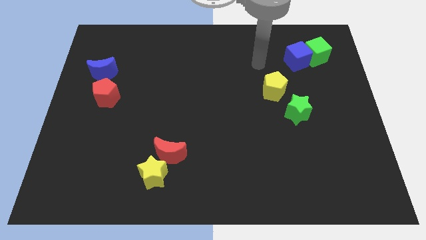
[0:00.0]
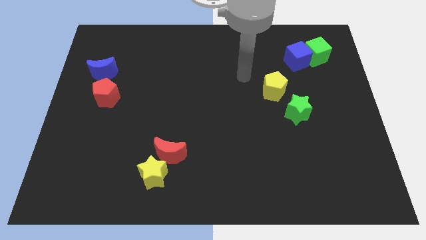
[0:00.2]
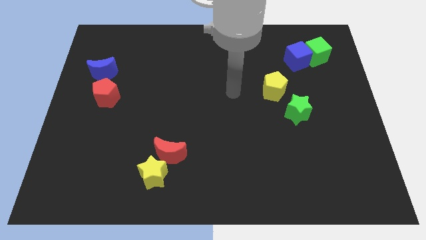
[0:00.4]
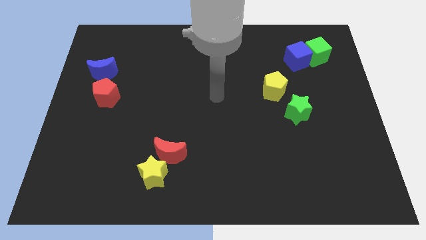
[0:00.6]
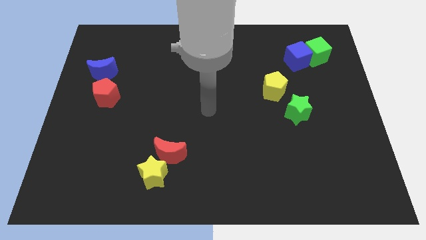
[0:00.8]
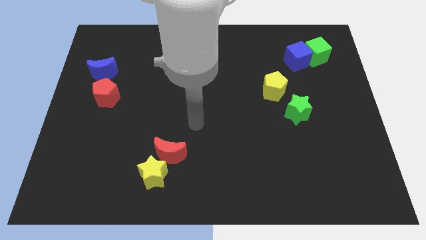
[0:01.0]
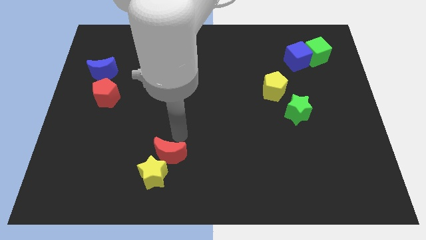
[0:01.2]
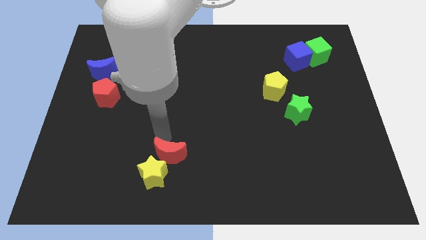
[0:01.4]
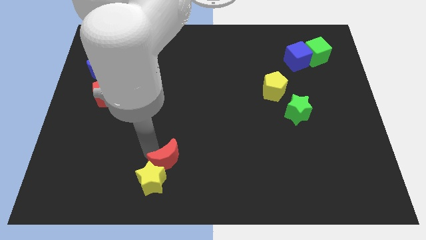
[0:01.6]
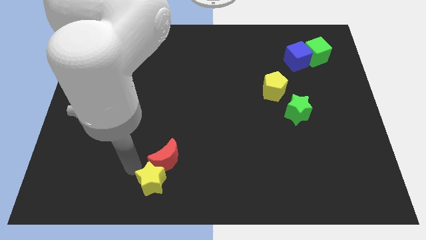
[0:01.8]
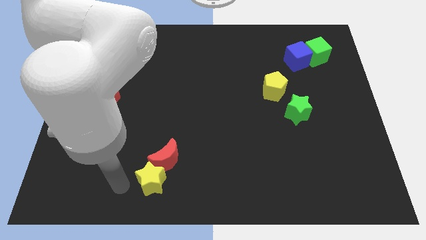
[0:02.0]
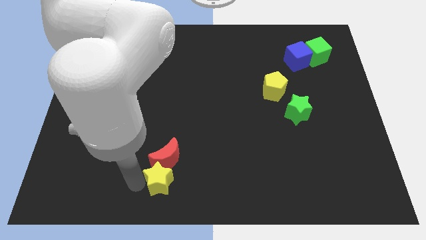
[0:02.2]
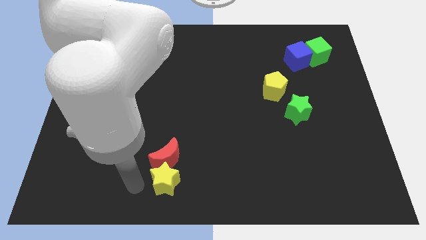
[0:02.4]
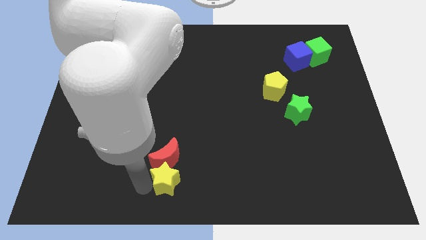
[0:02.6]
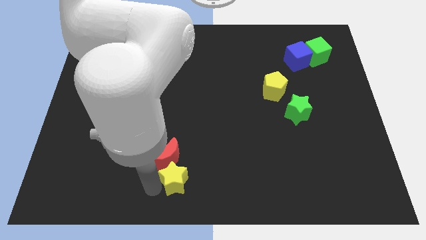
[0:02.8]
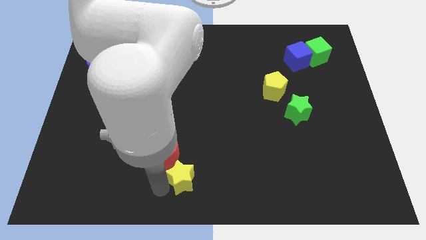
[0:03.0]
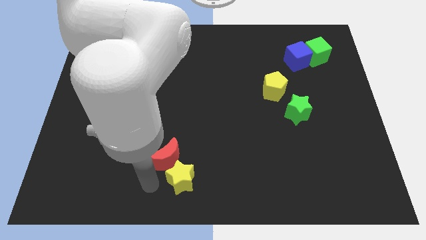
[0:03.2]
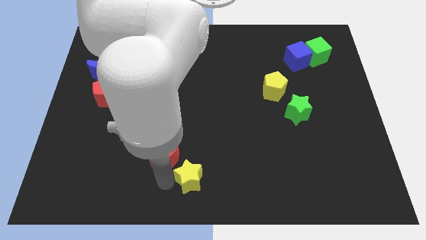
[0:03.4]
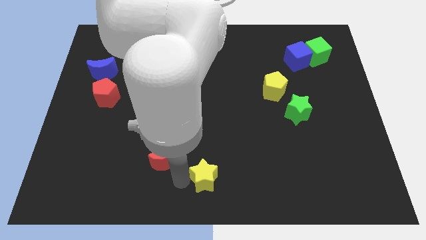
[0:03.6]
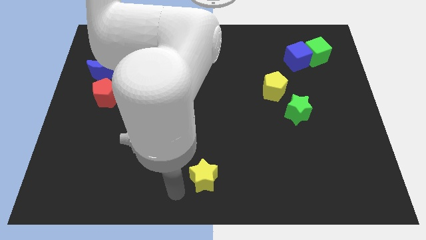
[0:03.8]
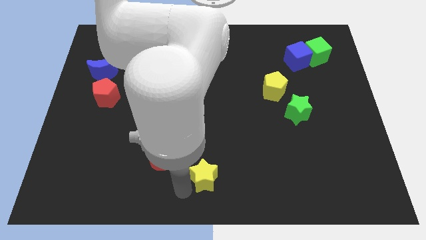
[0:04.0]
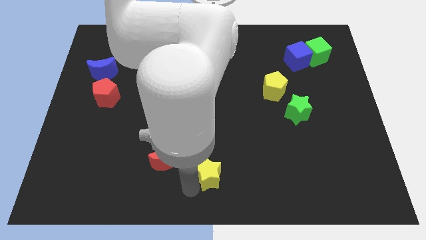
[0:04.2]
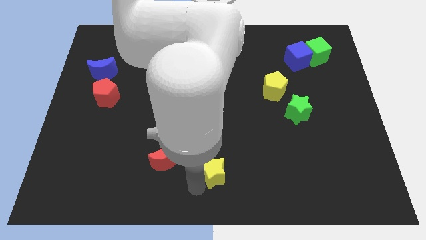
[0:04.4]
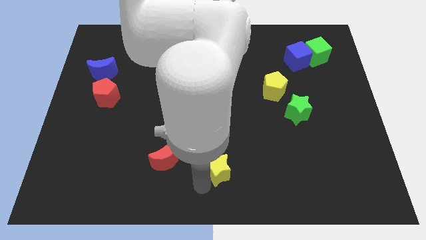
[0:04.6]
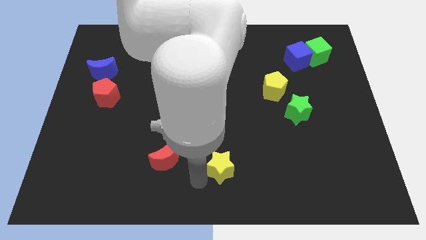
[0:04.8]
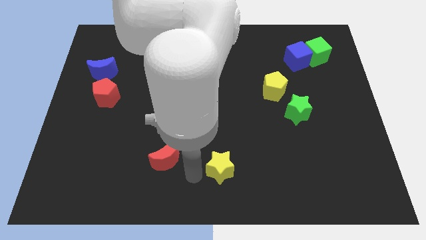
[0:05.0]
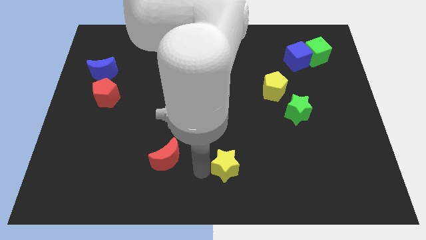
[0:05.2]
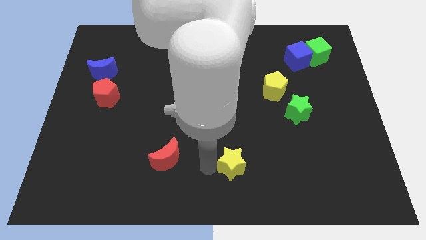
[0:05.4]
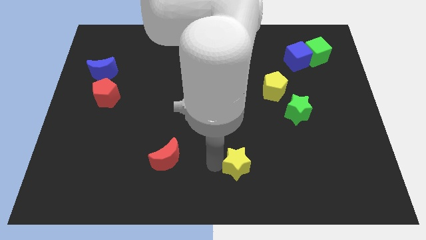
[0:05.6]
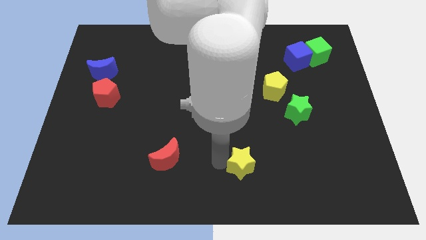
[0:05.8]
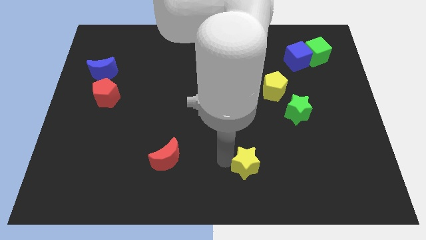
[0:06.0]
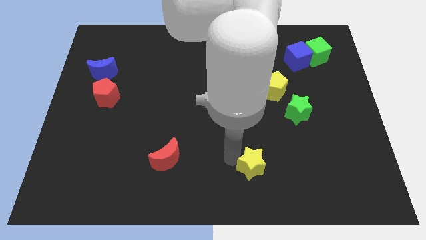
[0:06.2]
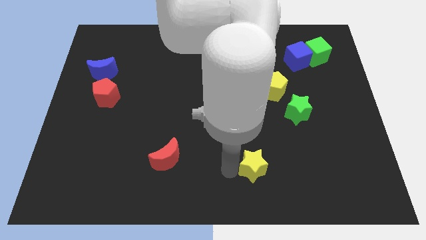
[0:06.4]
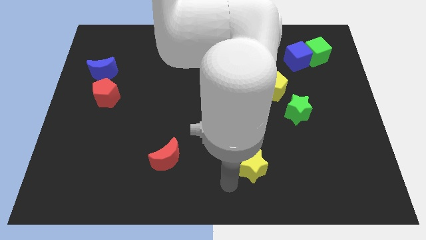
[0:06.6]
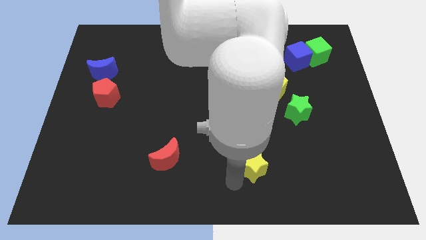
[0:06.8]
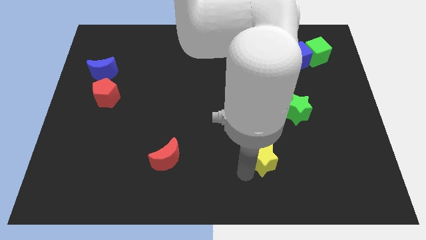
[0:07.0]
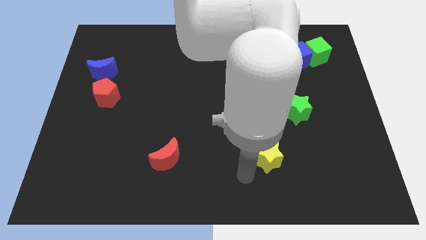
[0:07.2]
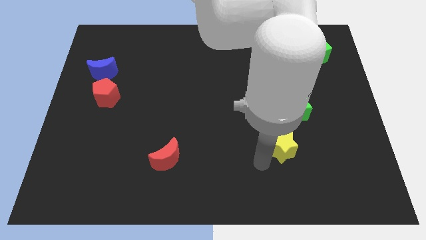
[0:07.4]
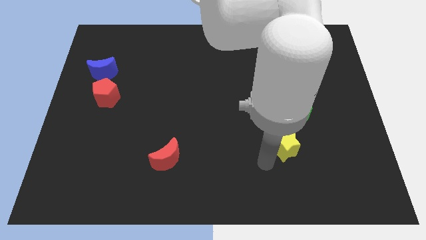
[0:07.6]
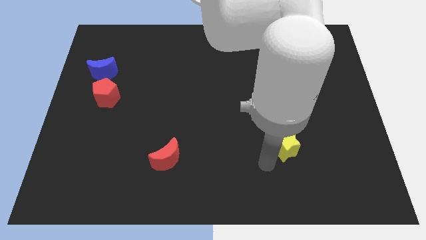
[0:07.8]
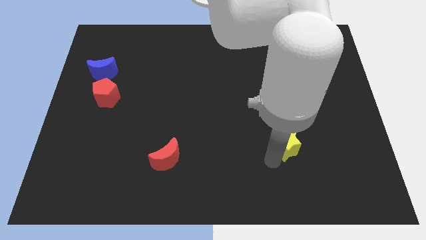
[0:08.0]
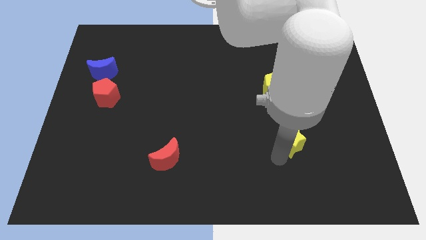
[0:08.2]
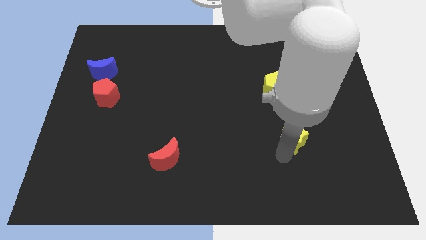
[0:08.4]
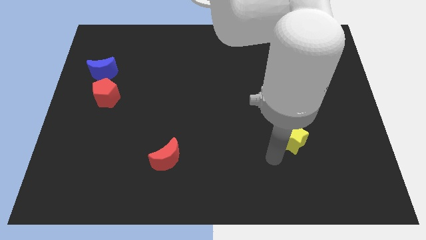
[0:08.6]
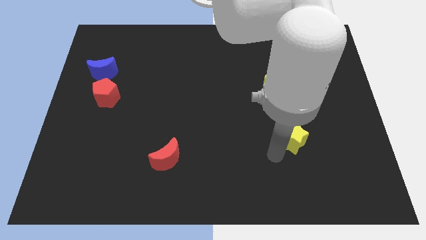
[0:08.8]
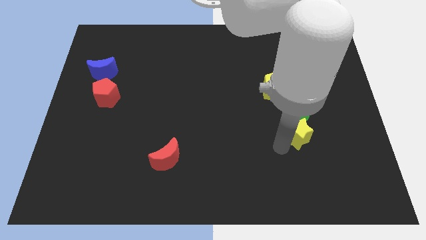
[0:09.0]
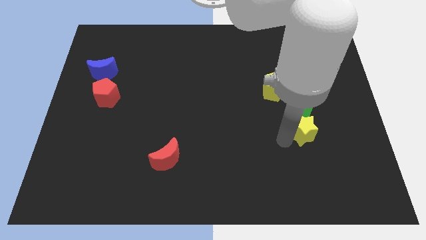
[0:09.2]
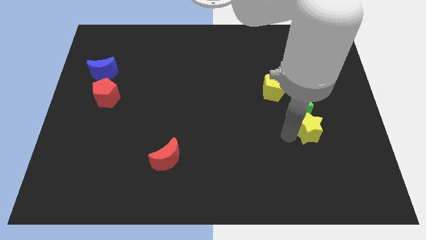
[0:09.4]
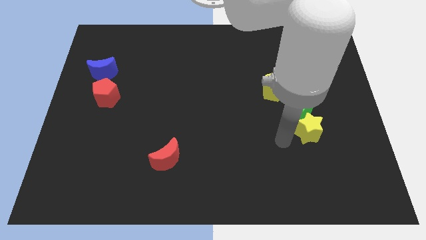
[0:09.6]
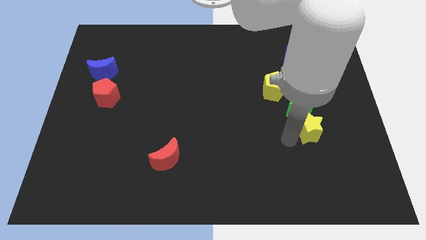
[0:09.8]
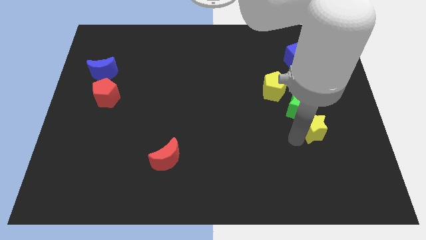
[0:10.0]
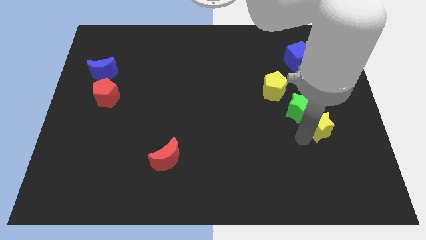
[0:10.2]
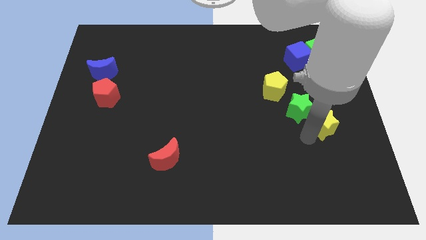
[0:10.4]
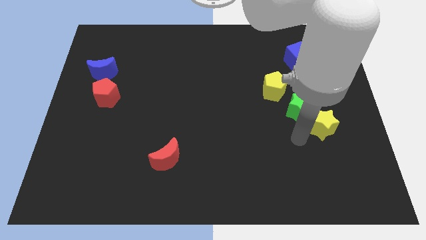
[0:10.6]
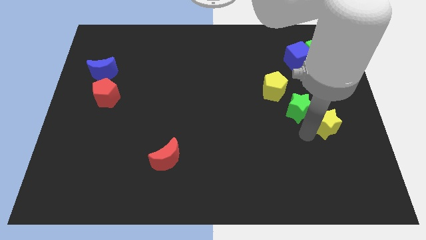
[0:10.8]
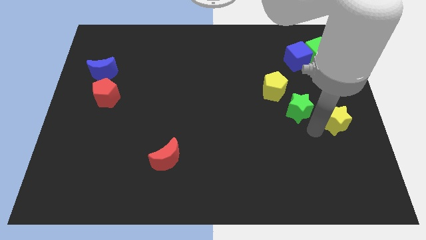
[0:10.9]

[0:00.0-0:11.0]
push the yellow star to the right side

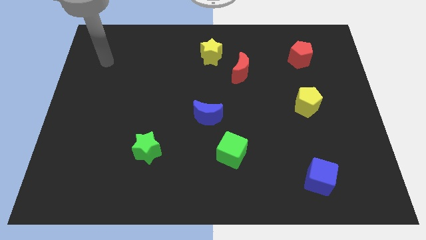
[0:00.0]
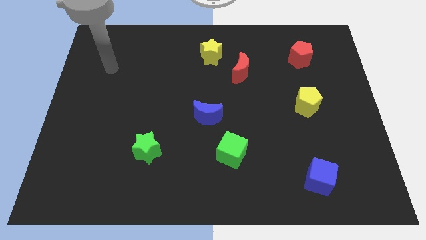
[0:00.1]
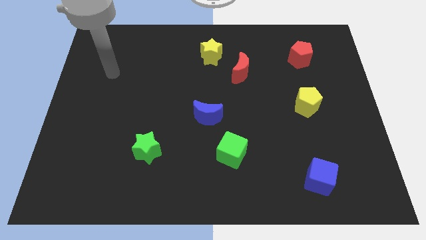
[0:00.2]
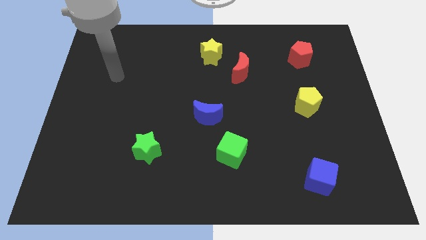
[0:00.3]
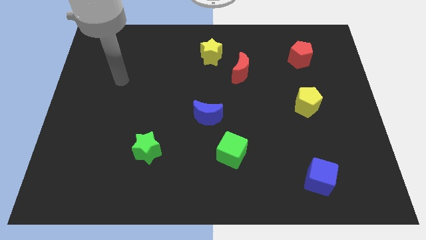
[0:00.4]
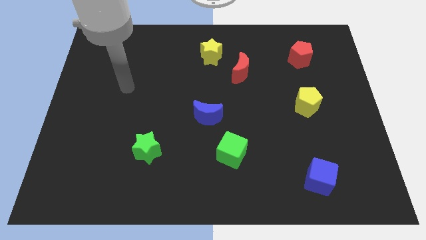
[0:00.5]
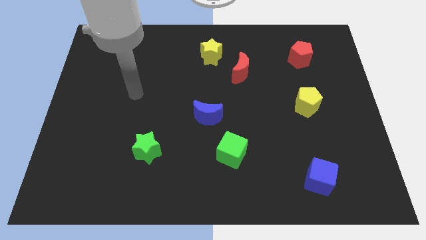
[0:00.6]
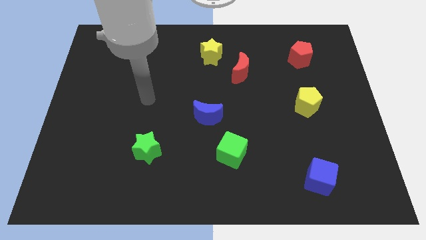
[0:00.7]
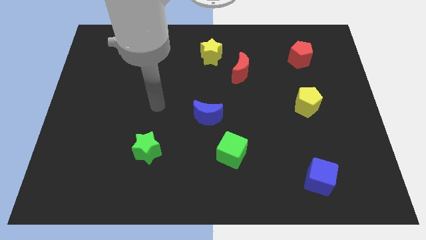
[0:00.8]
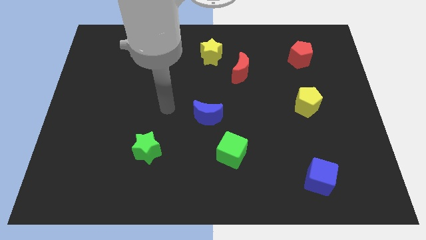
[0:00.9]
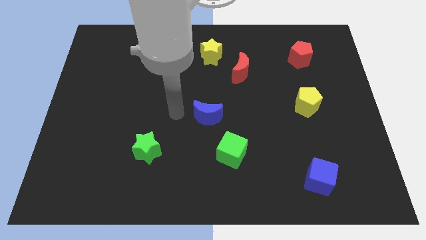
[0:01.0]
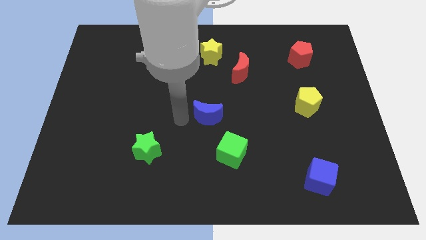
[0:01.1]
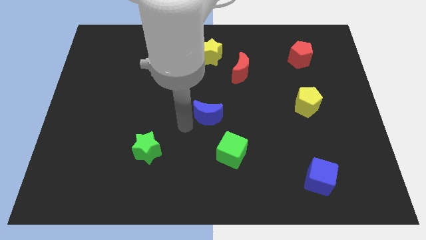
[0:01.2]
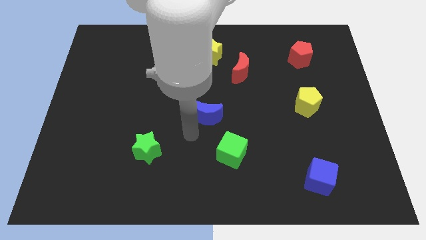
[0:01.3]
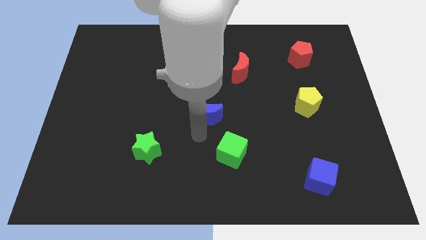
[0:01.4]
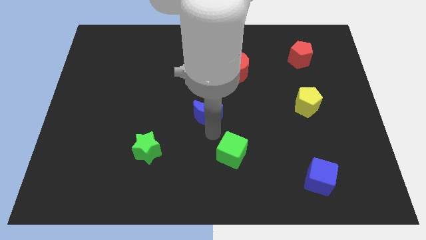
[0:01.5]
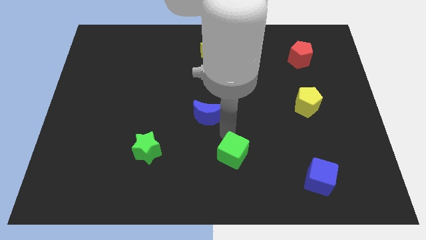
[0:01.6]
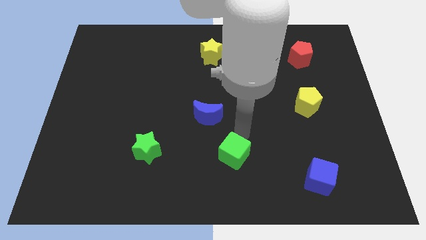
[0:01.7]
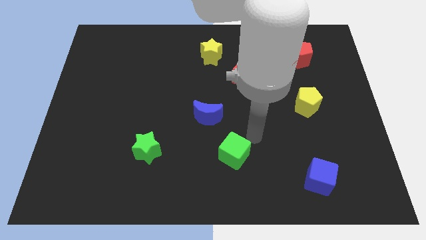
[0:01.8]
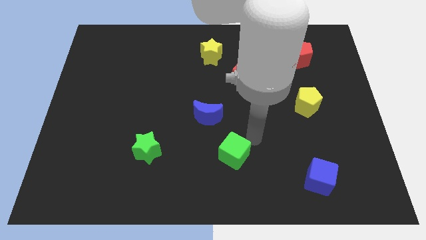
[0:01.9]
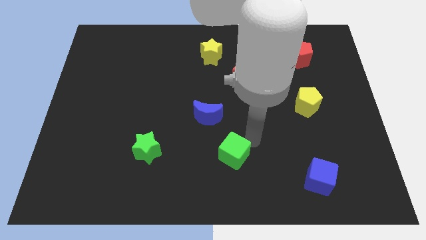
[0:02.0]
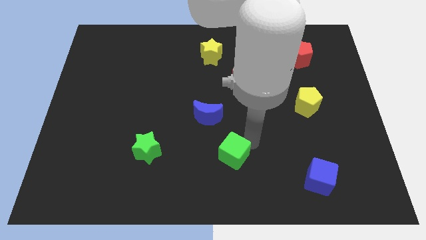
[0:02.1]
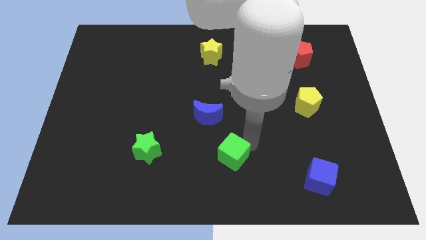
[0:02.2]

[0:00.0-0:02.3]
put the green cube to the bottom
